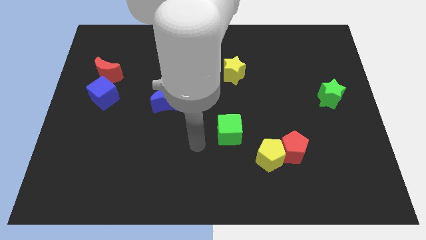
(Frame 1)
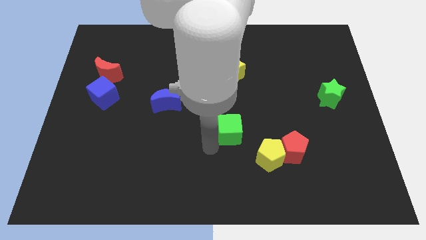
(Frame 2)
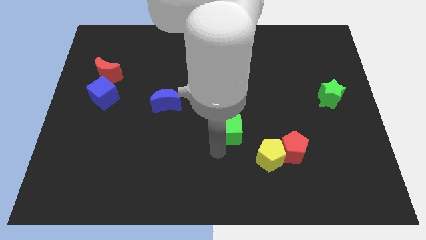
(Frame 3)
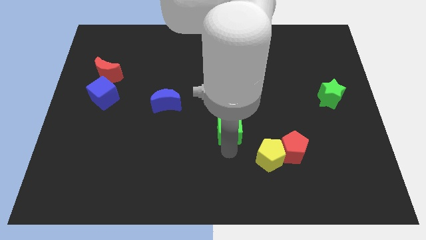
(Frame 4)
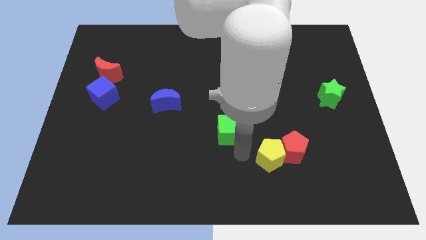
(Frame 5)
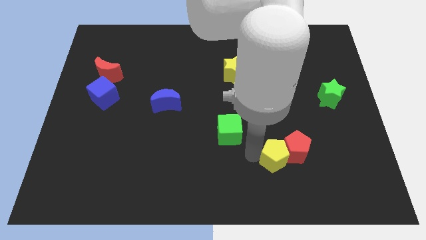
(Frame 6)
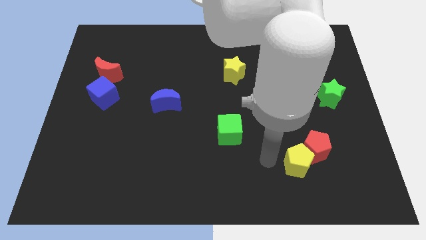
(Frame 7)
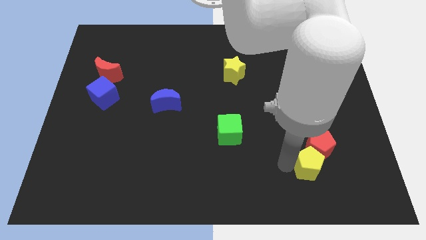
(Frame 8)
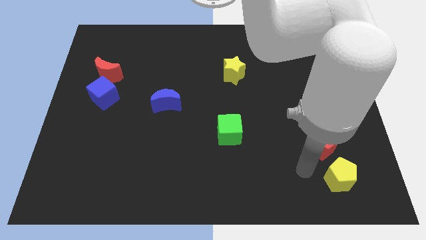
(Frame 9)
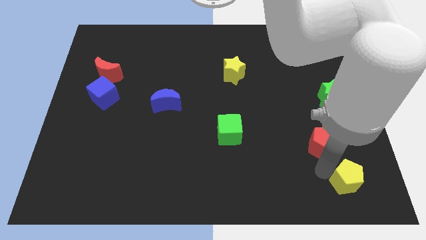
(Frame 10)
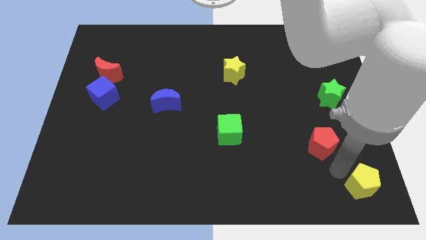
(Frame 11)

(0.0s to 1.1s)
pull the red pentagon apart from the yellow pentagon

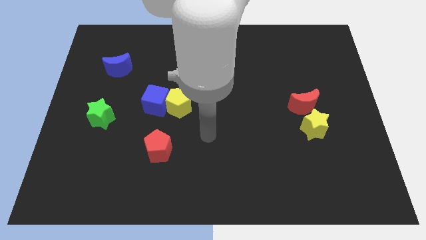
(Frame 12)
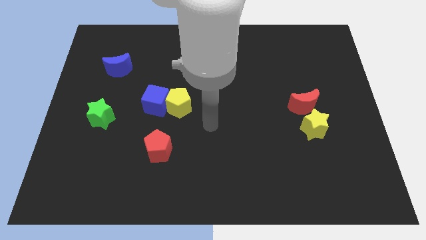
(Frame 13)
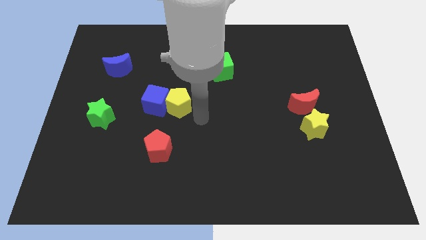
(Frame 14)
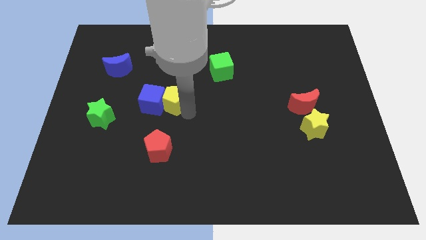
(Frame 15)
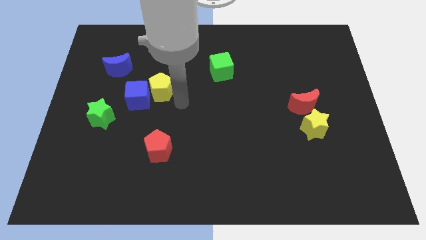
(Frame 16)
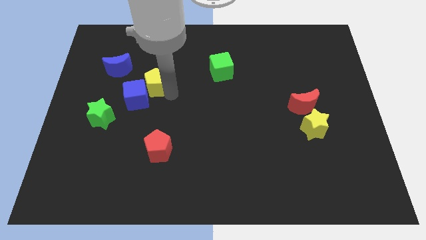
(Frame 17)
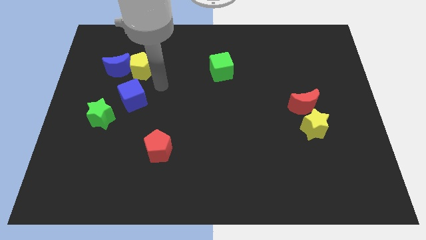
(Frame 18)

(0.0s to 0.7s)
pull the blue cube apart from the yellow pentagon

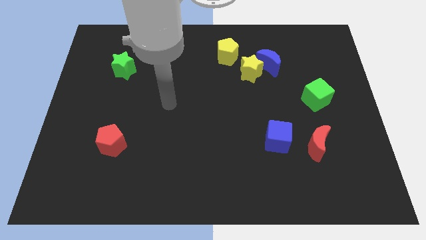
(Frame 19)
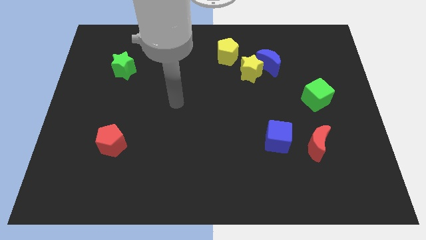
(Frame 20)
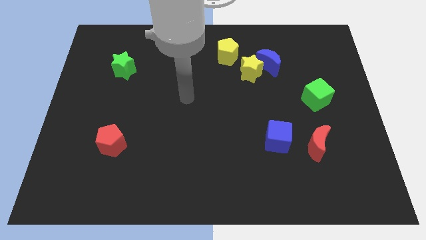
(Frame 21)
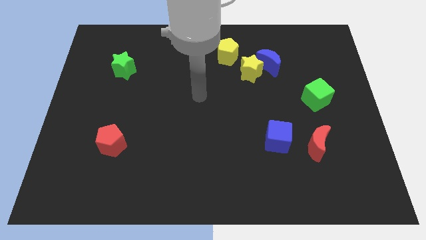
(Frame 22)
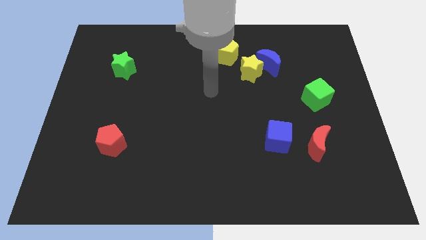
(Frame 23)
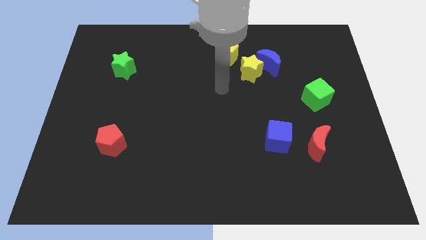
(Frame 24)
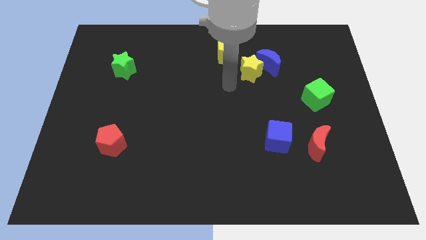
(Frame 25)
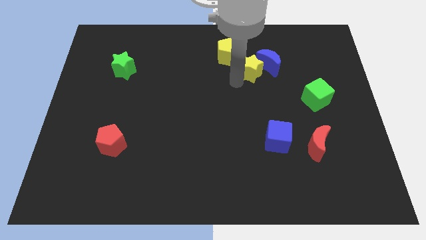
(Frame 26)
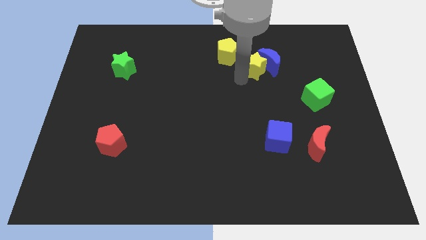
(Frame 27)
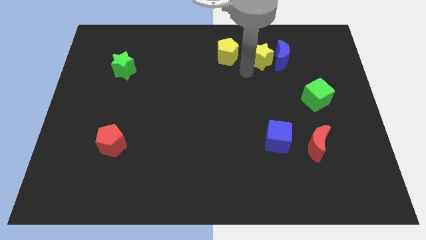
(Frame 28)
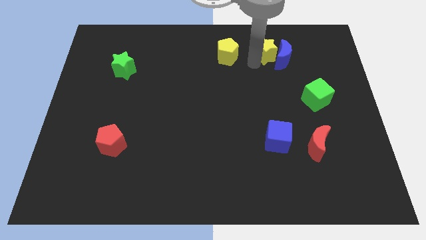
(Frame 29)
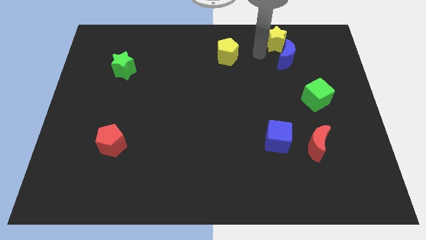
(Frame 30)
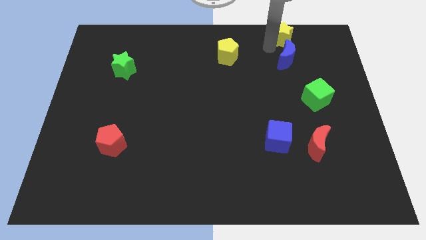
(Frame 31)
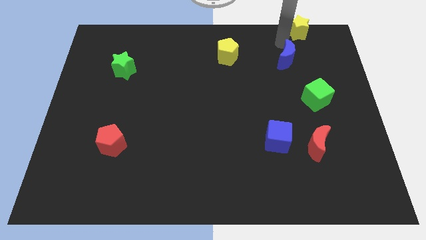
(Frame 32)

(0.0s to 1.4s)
move the blue moon away from the yellow star

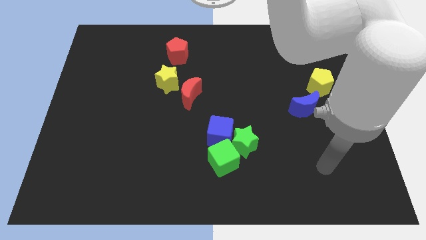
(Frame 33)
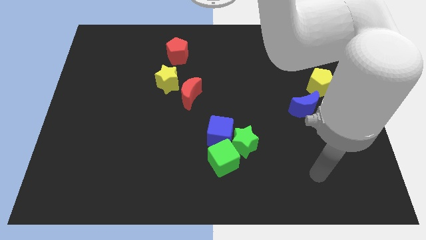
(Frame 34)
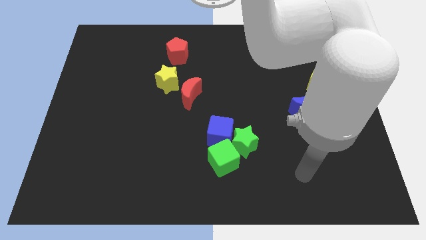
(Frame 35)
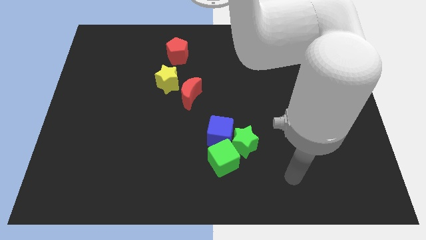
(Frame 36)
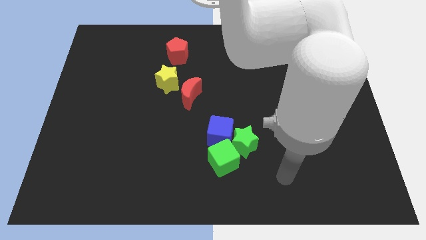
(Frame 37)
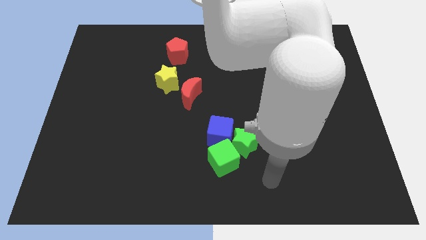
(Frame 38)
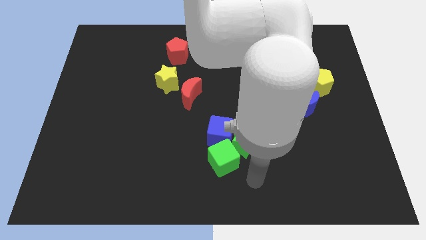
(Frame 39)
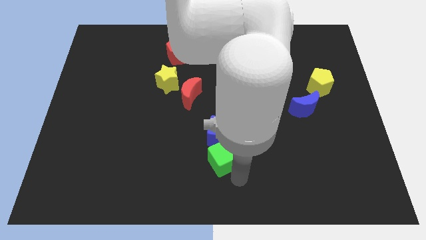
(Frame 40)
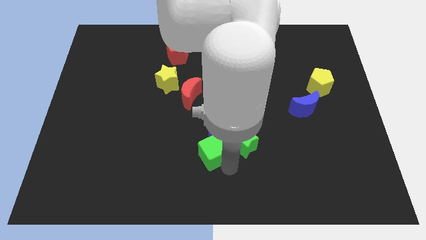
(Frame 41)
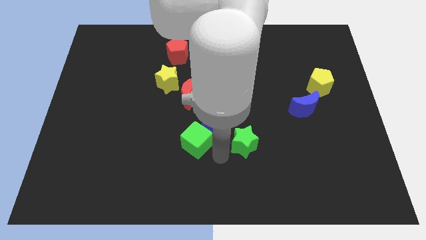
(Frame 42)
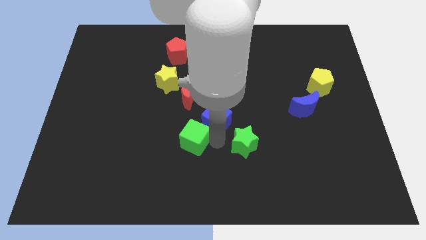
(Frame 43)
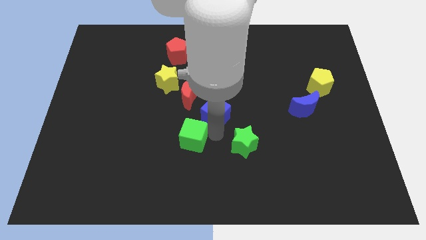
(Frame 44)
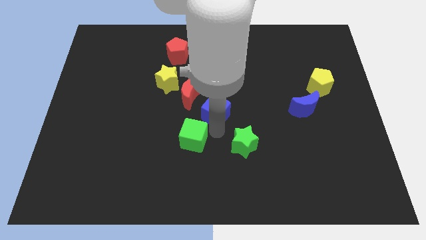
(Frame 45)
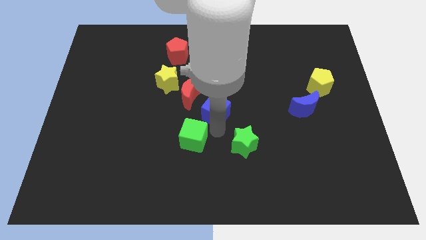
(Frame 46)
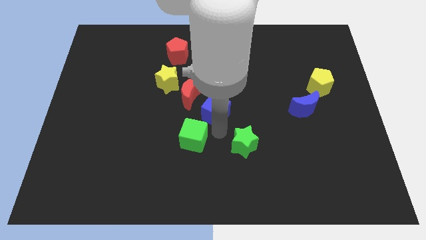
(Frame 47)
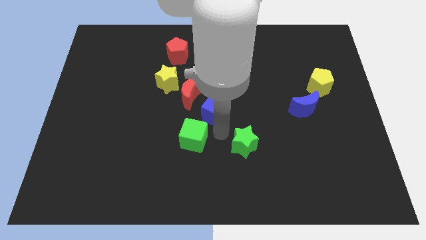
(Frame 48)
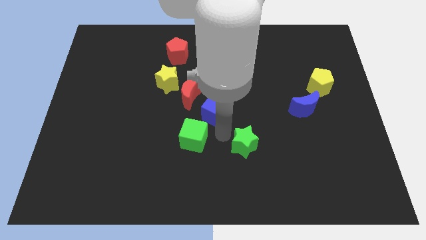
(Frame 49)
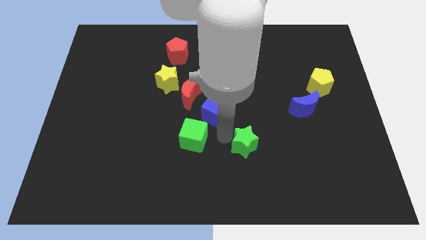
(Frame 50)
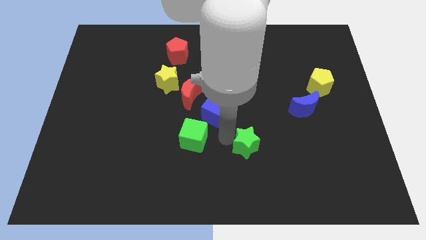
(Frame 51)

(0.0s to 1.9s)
move the green star away from the blue cube and green cube

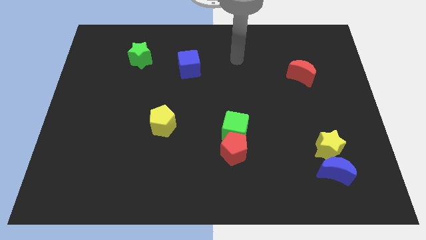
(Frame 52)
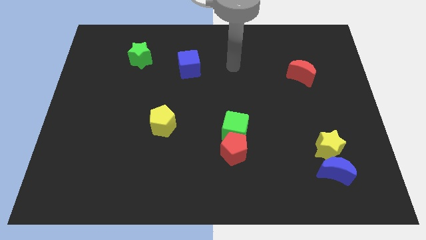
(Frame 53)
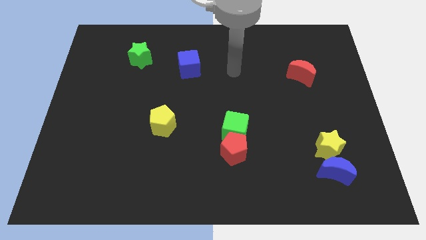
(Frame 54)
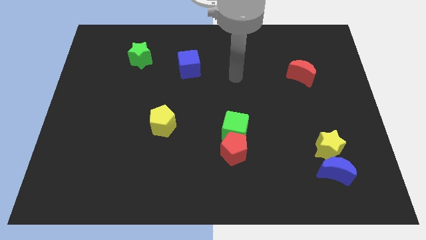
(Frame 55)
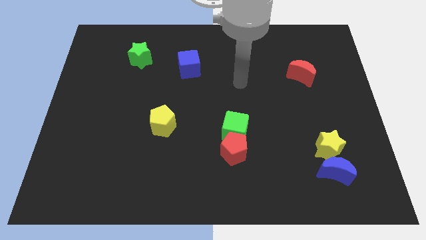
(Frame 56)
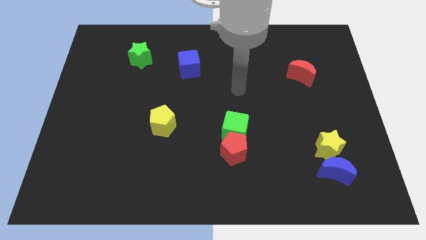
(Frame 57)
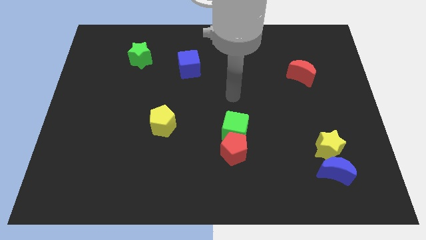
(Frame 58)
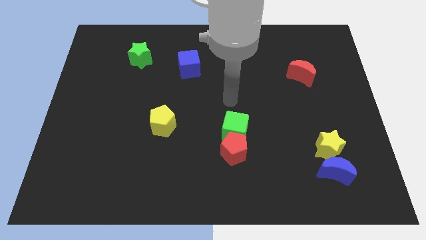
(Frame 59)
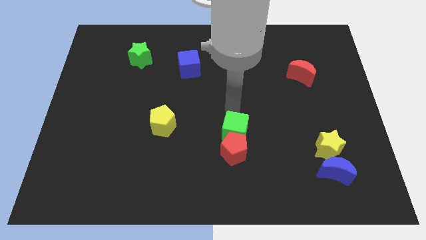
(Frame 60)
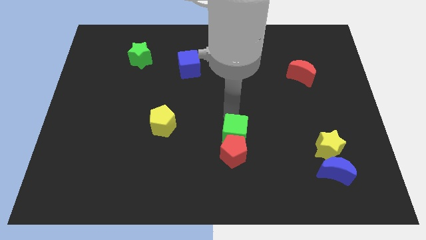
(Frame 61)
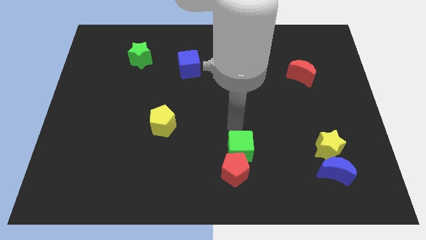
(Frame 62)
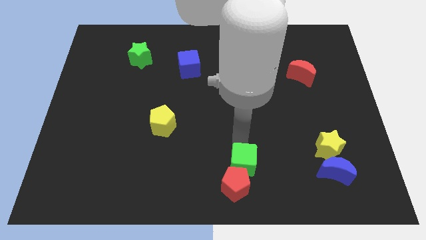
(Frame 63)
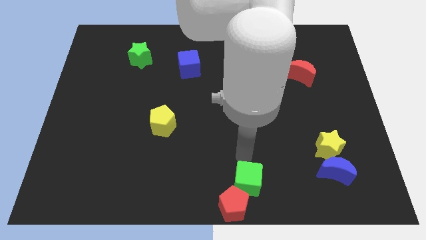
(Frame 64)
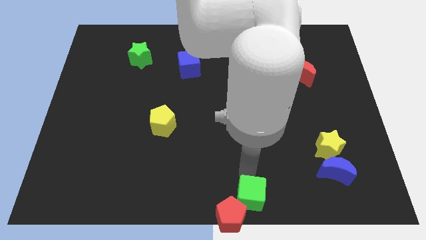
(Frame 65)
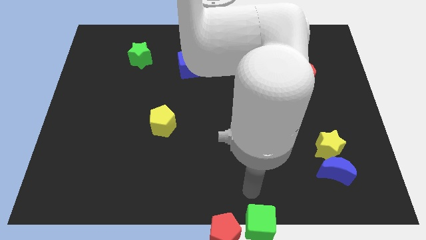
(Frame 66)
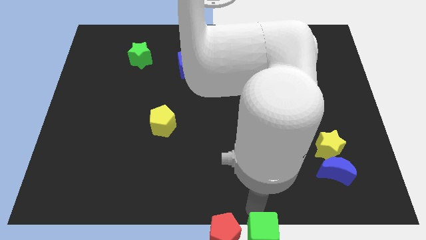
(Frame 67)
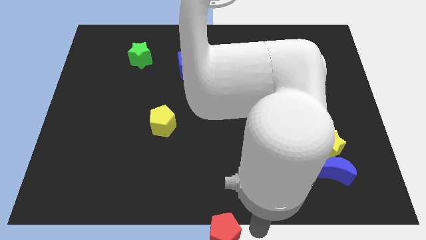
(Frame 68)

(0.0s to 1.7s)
move the red pentagon away from the green cube

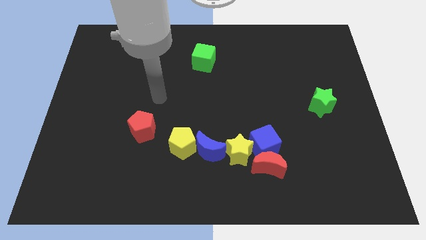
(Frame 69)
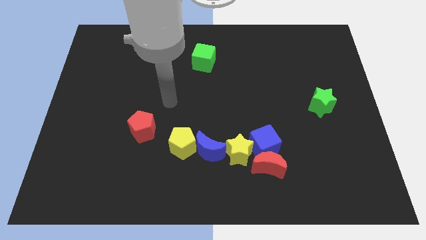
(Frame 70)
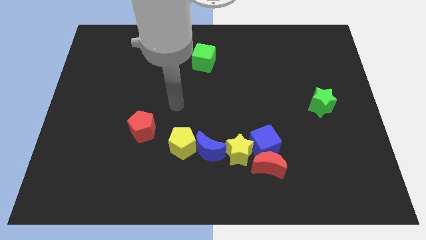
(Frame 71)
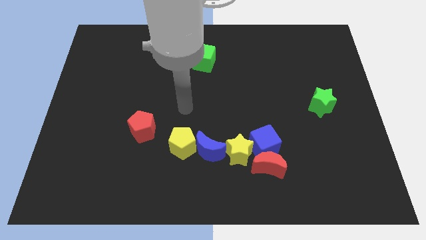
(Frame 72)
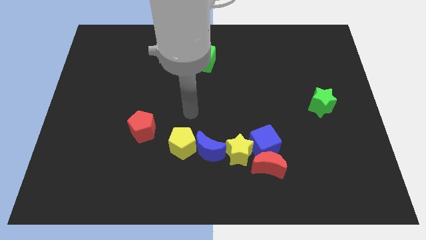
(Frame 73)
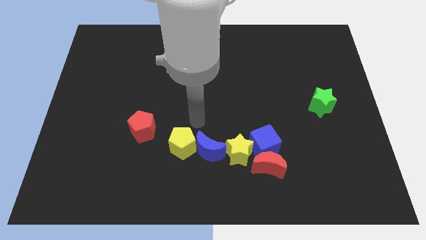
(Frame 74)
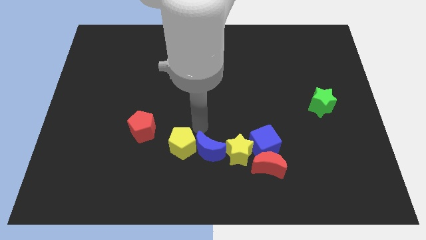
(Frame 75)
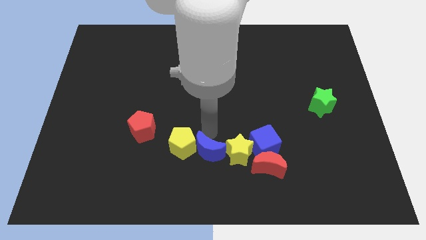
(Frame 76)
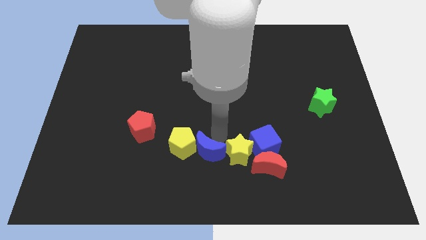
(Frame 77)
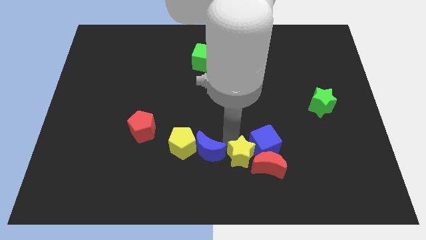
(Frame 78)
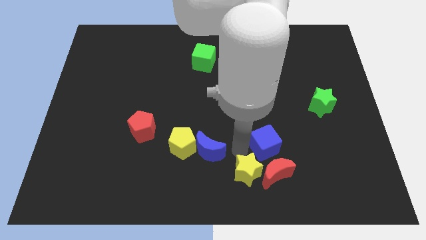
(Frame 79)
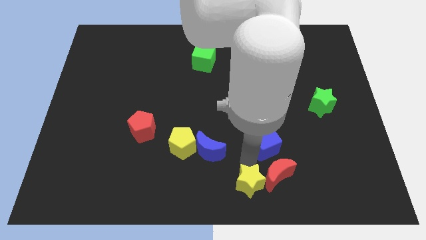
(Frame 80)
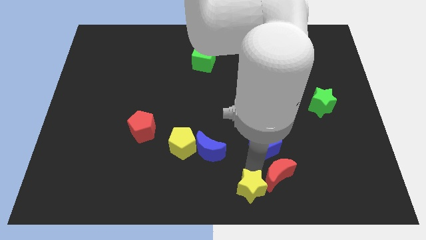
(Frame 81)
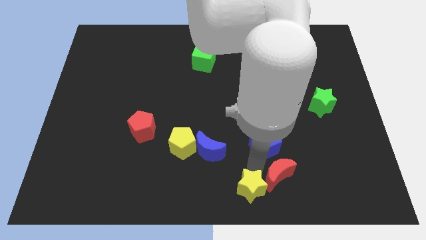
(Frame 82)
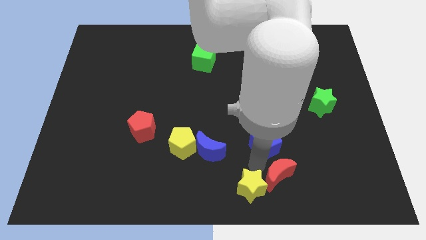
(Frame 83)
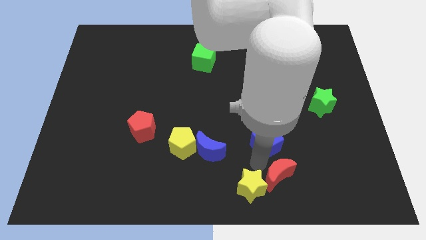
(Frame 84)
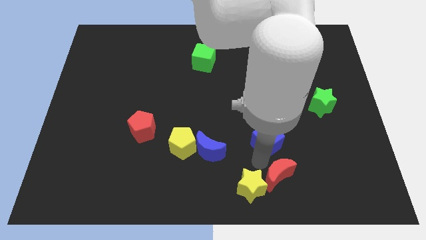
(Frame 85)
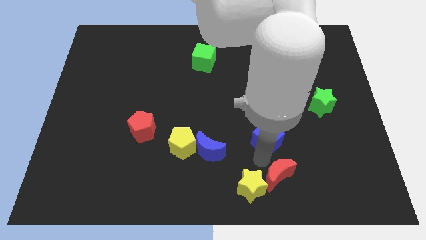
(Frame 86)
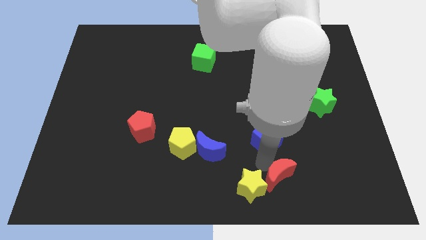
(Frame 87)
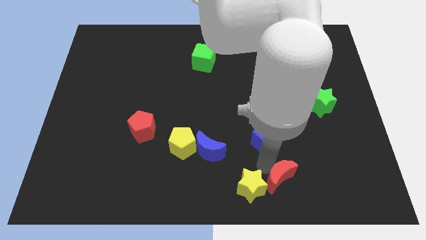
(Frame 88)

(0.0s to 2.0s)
move the blue cube away from the red moon and yellow star

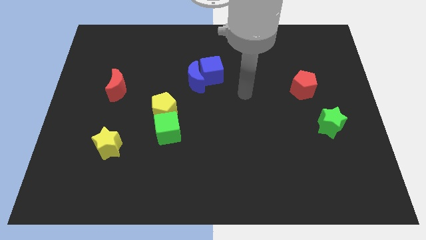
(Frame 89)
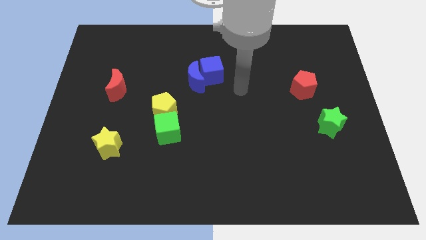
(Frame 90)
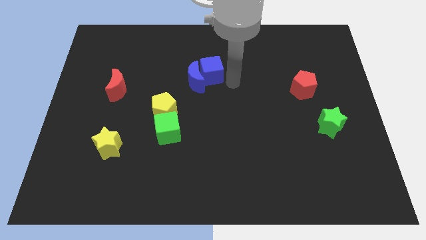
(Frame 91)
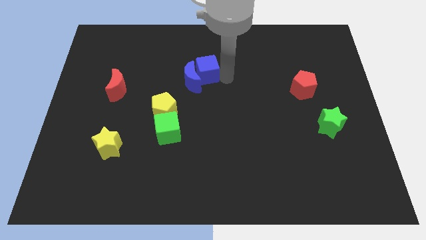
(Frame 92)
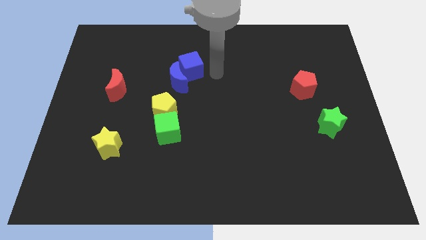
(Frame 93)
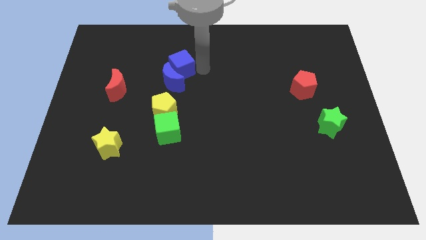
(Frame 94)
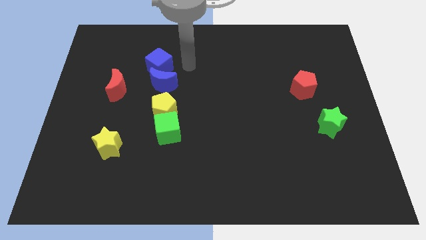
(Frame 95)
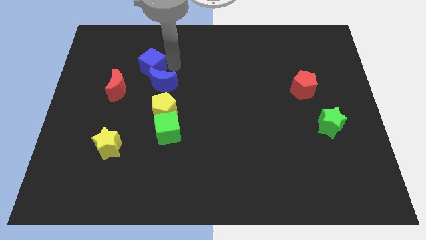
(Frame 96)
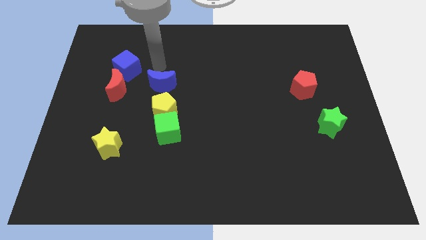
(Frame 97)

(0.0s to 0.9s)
separate the blue moon from the blue cube
